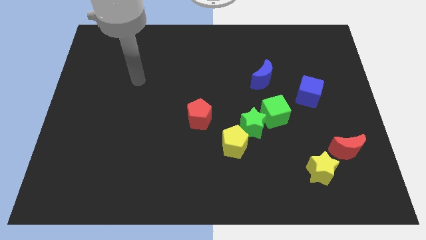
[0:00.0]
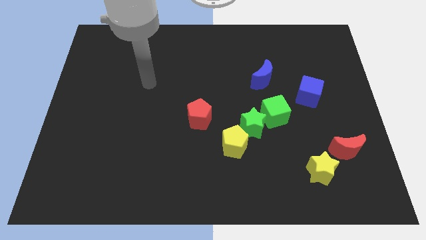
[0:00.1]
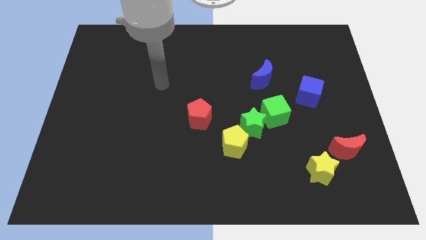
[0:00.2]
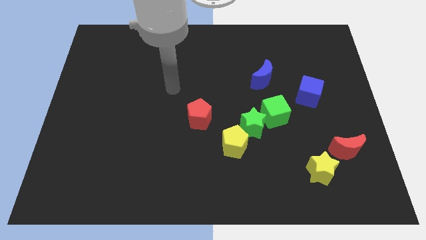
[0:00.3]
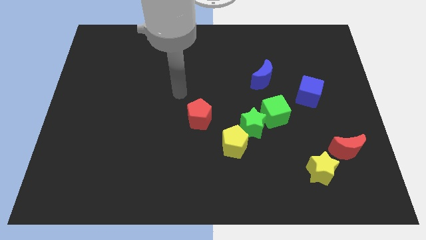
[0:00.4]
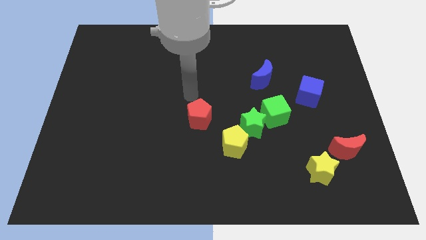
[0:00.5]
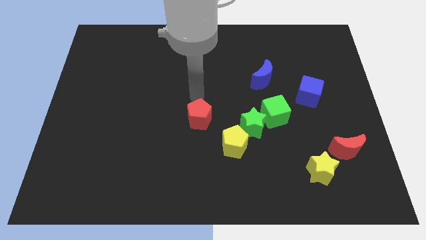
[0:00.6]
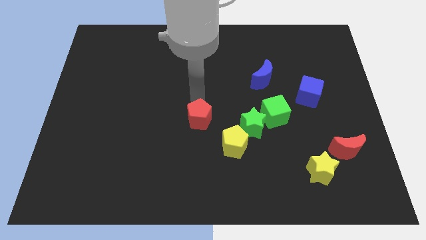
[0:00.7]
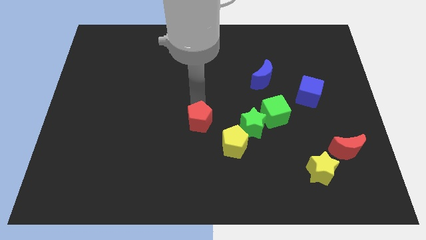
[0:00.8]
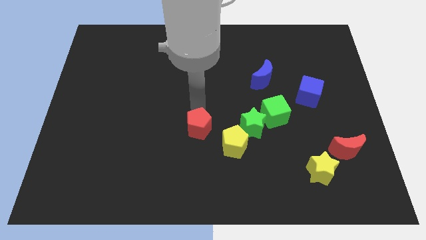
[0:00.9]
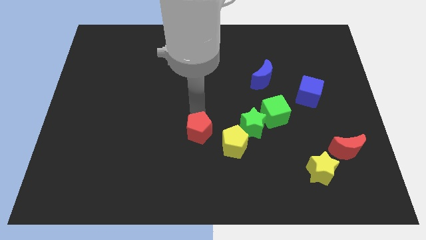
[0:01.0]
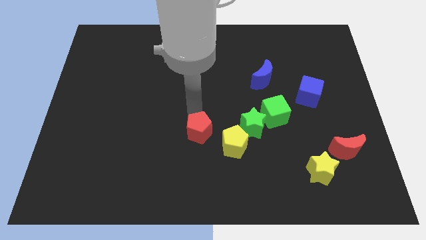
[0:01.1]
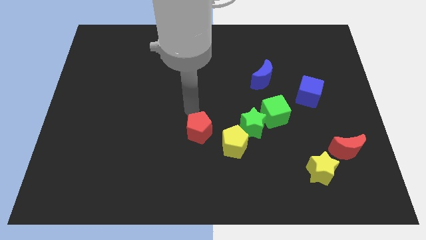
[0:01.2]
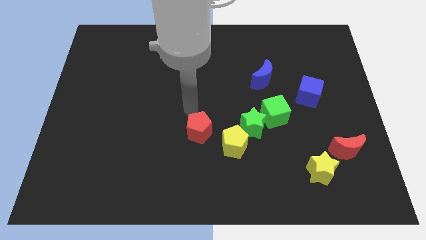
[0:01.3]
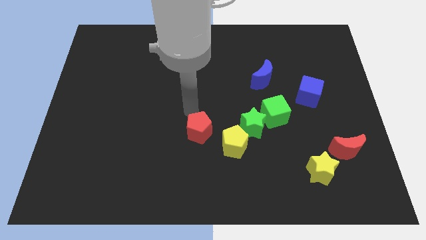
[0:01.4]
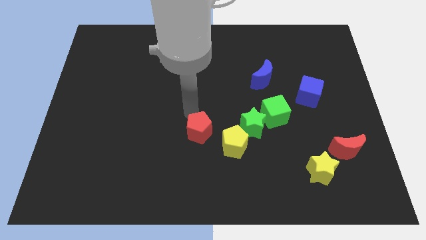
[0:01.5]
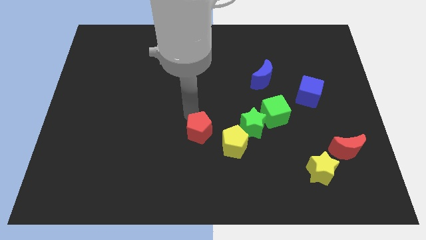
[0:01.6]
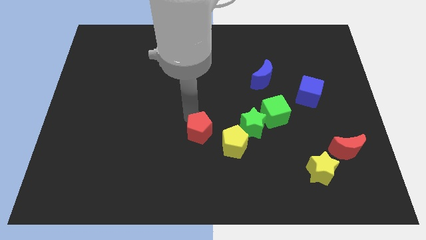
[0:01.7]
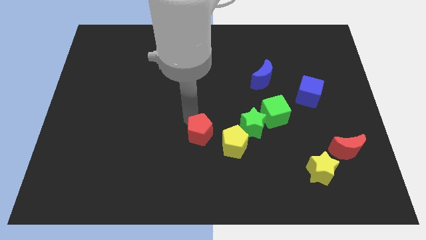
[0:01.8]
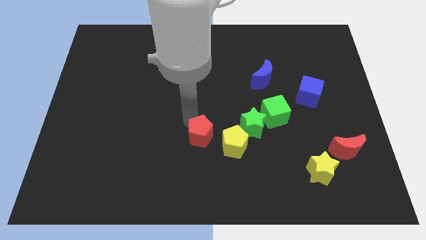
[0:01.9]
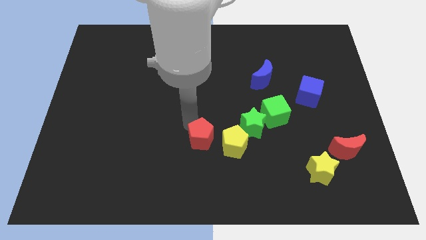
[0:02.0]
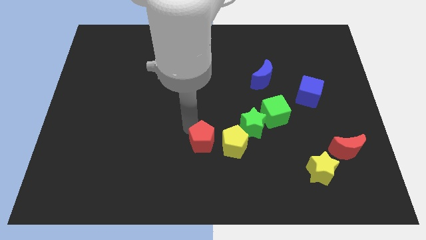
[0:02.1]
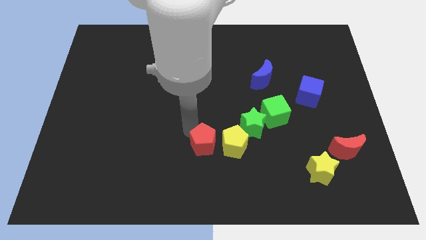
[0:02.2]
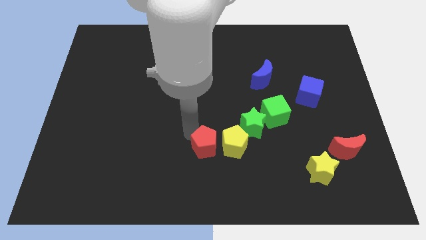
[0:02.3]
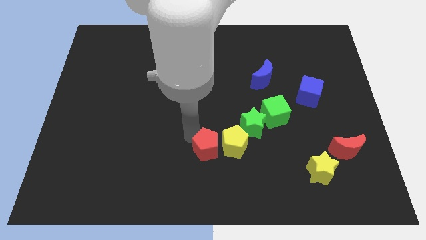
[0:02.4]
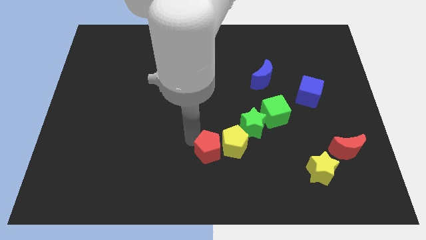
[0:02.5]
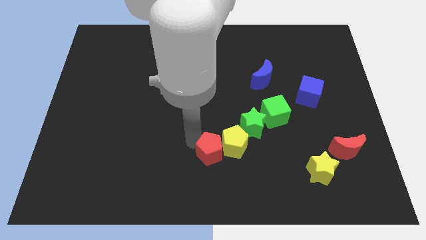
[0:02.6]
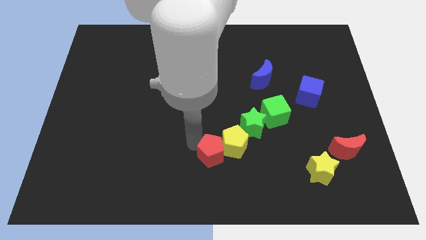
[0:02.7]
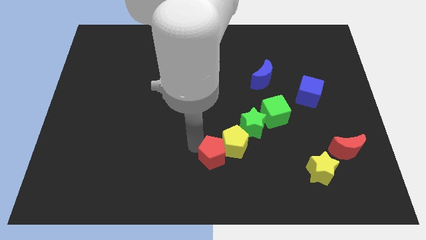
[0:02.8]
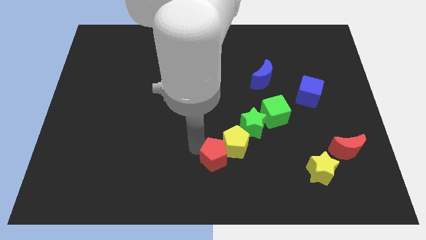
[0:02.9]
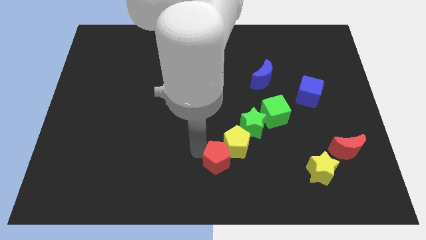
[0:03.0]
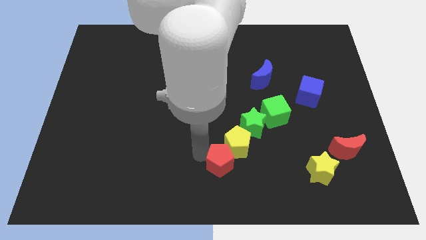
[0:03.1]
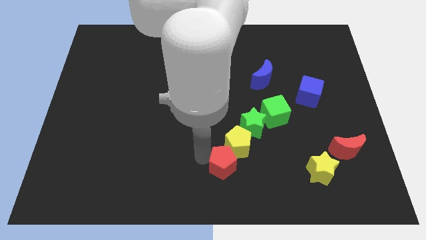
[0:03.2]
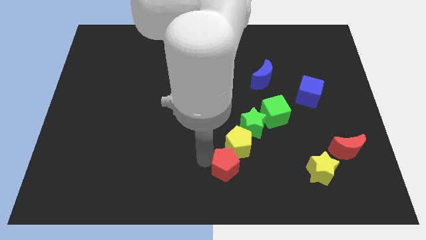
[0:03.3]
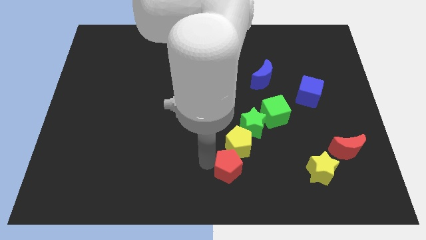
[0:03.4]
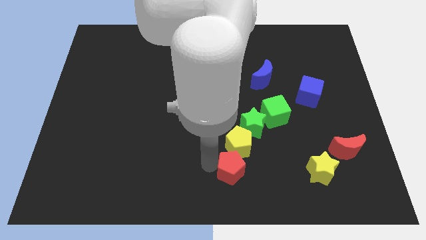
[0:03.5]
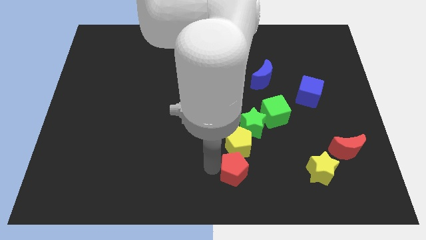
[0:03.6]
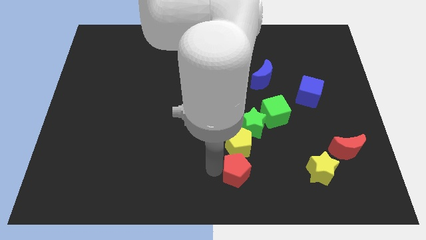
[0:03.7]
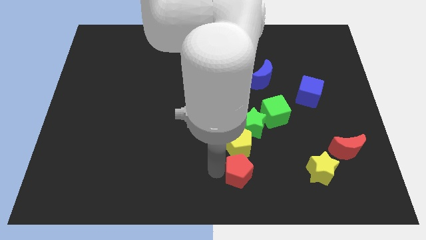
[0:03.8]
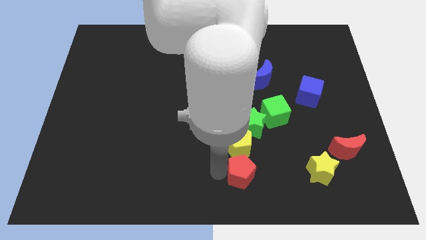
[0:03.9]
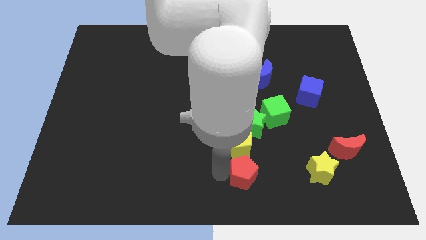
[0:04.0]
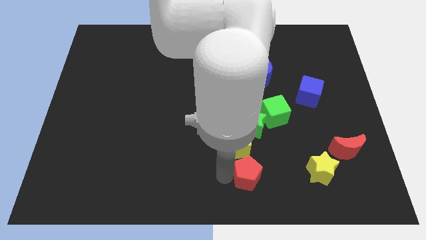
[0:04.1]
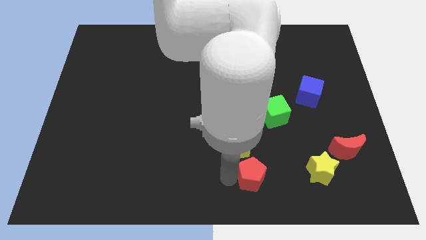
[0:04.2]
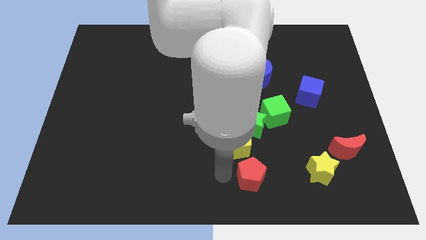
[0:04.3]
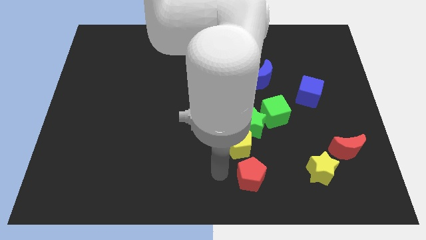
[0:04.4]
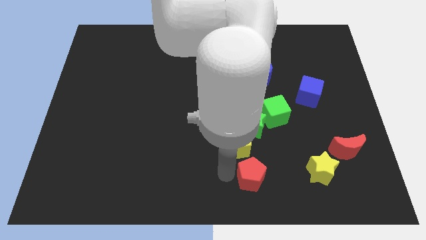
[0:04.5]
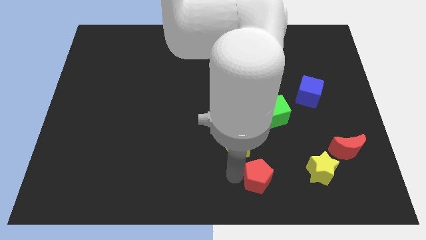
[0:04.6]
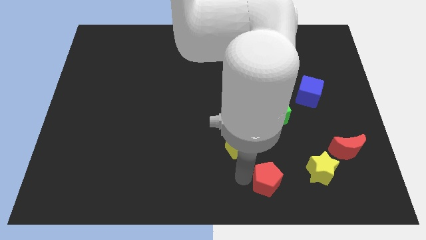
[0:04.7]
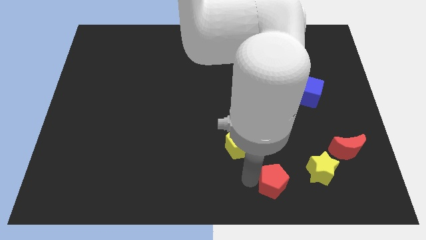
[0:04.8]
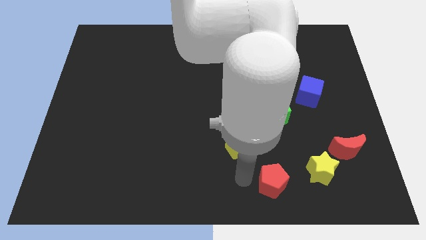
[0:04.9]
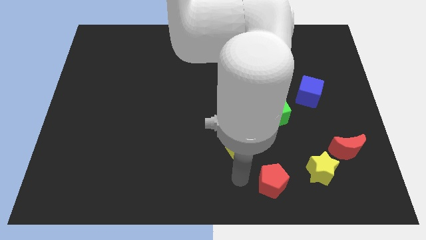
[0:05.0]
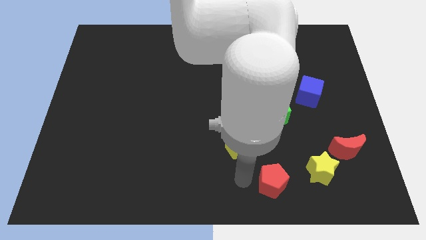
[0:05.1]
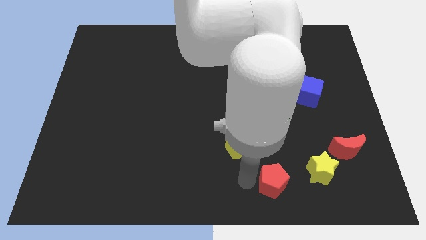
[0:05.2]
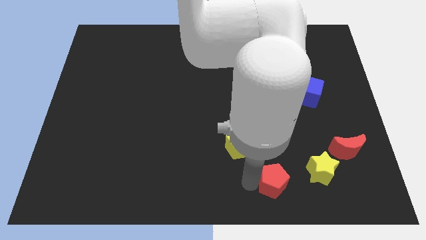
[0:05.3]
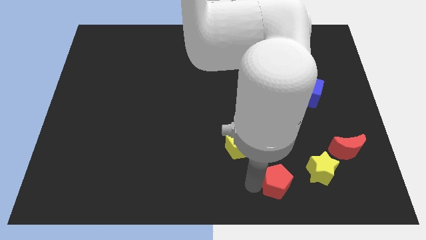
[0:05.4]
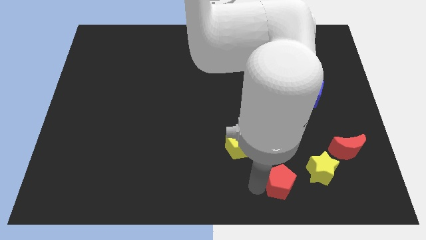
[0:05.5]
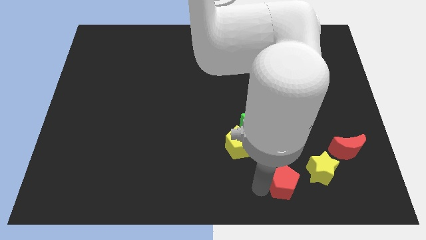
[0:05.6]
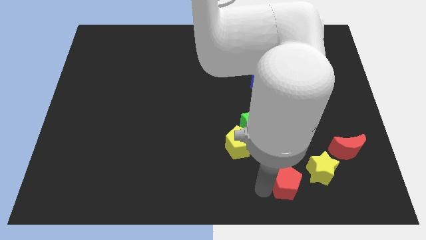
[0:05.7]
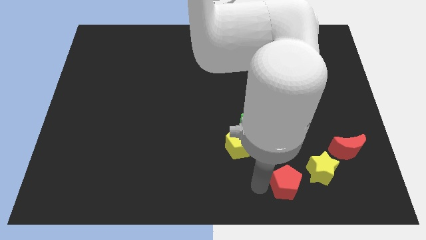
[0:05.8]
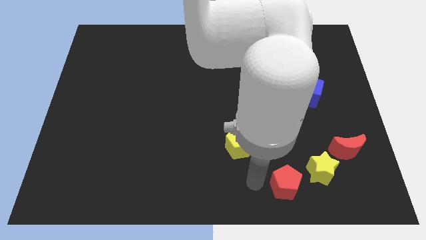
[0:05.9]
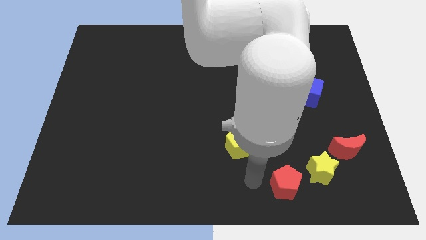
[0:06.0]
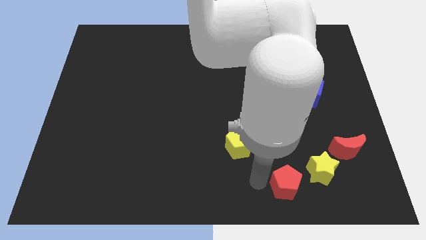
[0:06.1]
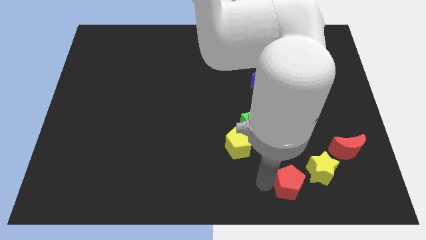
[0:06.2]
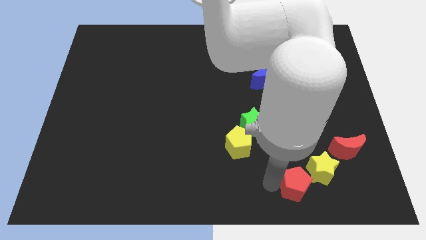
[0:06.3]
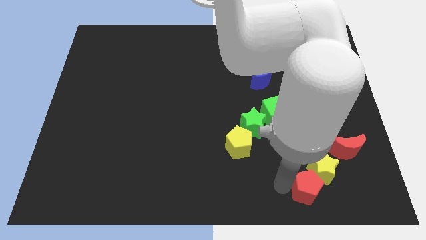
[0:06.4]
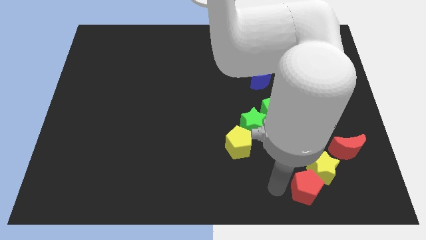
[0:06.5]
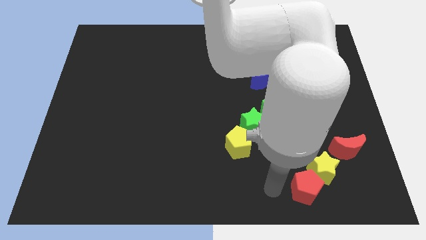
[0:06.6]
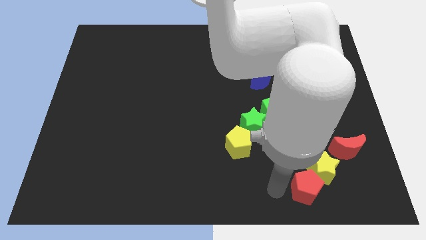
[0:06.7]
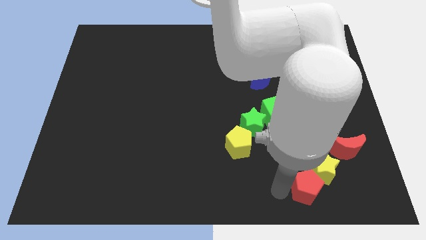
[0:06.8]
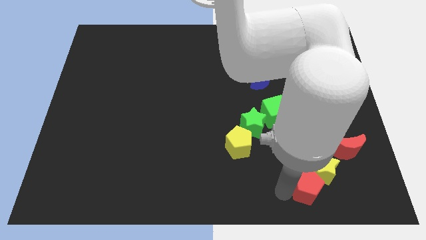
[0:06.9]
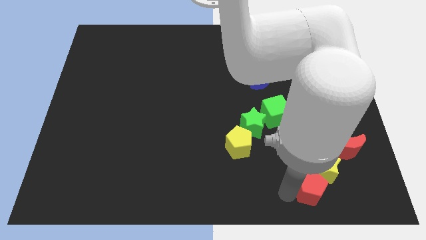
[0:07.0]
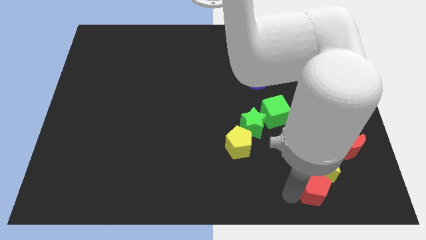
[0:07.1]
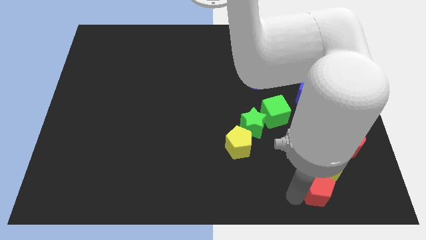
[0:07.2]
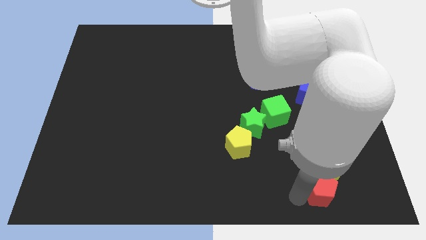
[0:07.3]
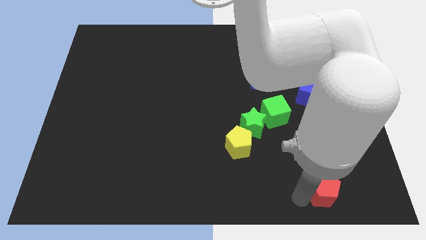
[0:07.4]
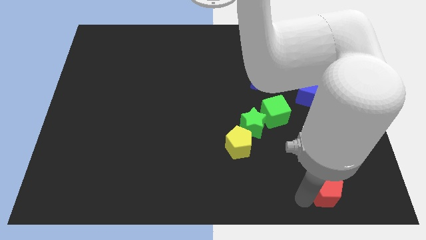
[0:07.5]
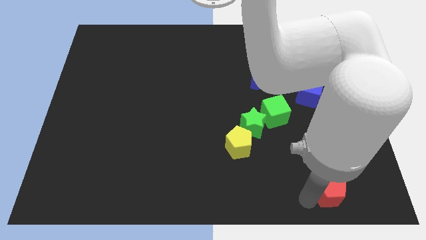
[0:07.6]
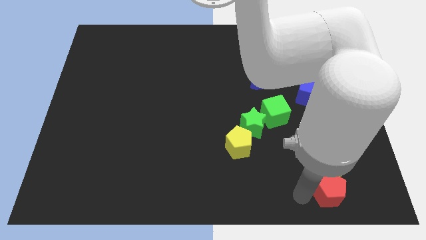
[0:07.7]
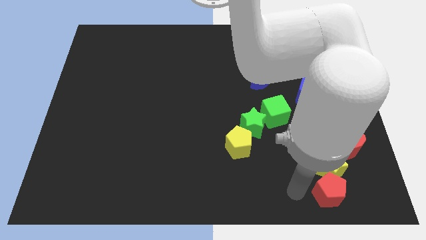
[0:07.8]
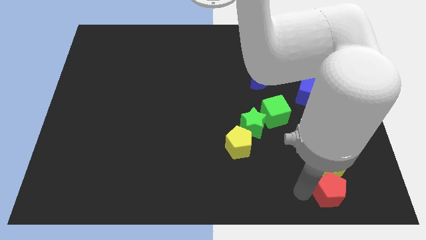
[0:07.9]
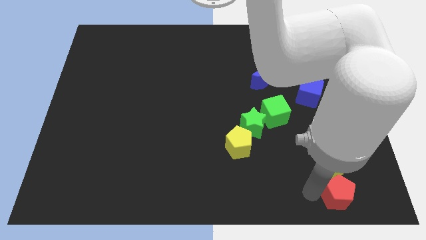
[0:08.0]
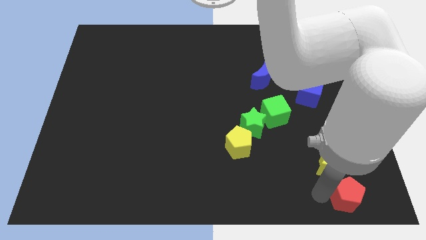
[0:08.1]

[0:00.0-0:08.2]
put the red pentagon to the bottom right
